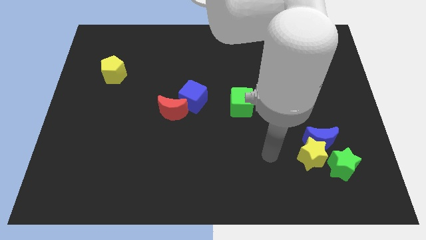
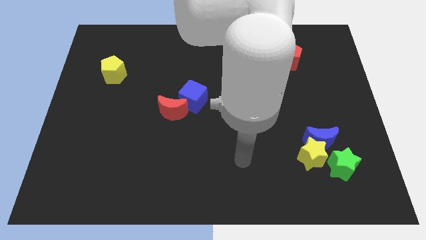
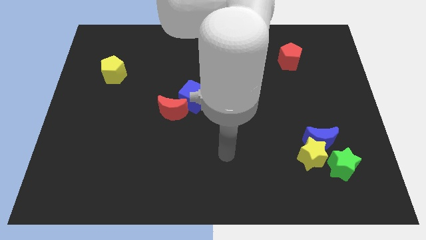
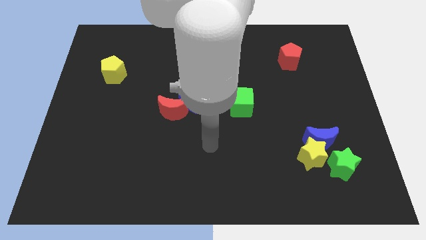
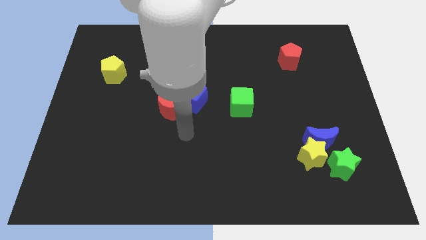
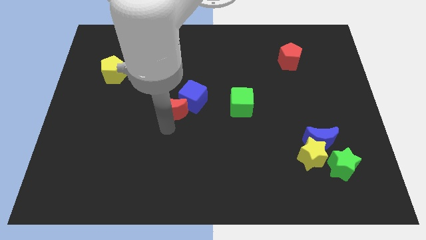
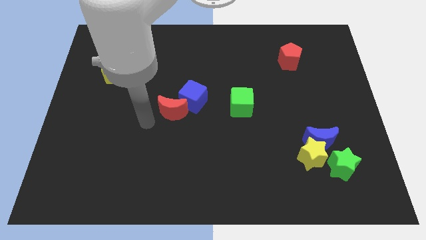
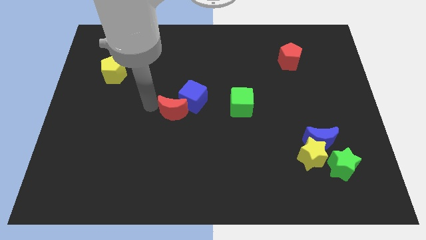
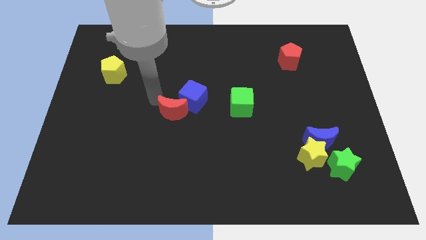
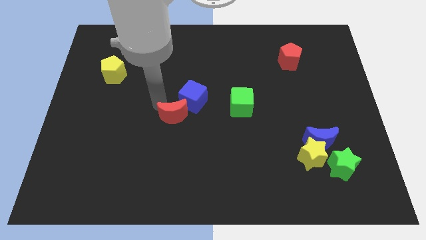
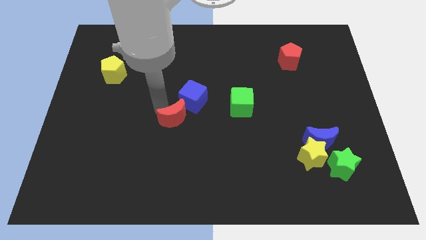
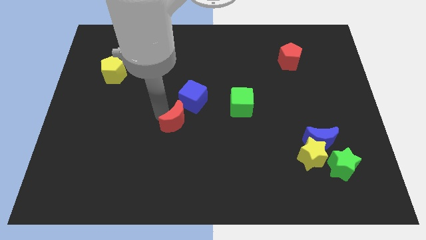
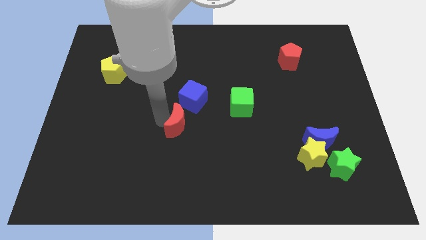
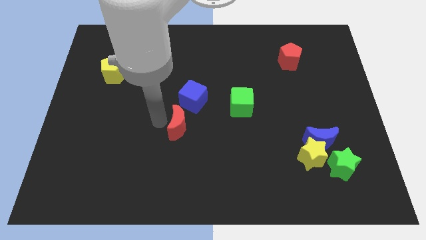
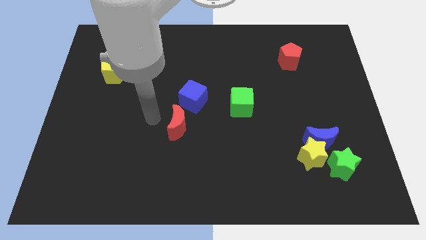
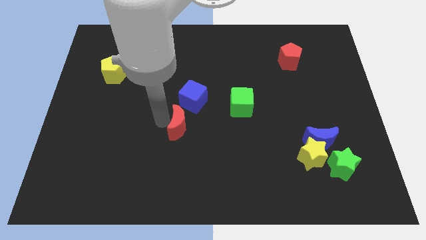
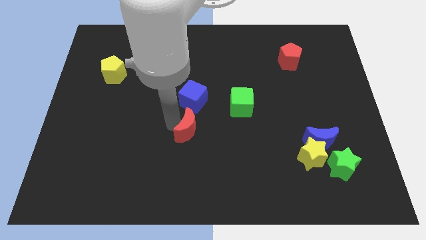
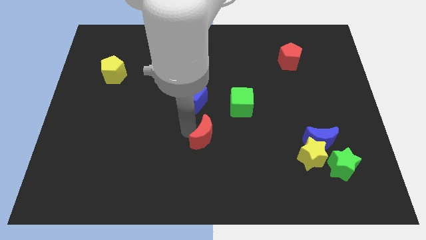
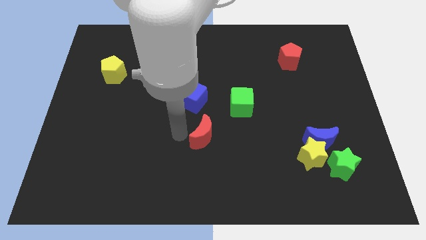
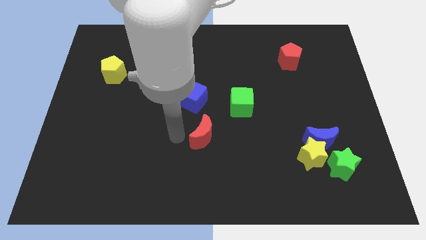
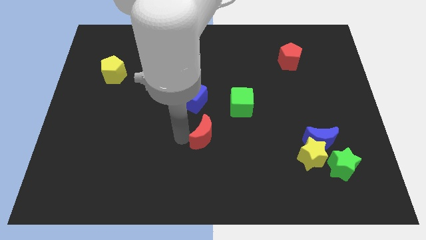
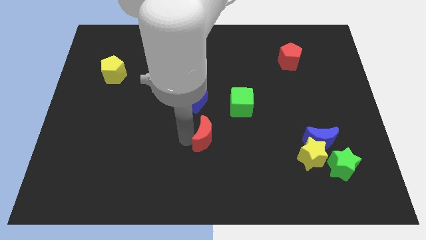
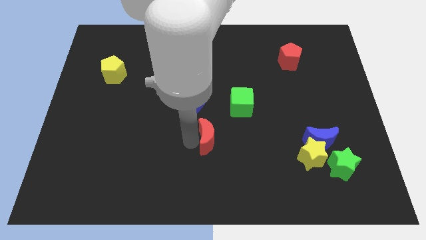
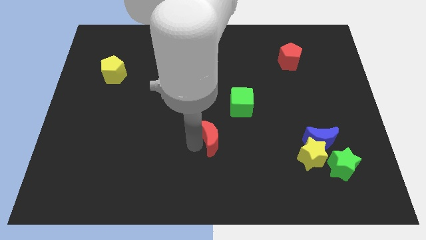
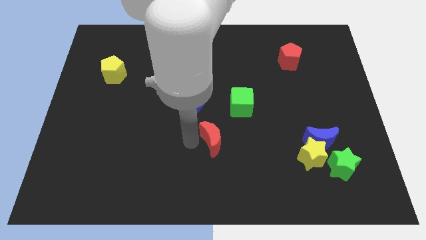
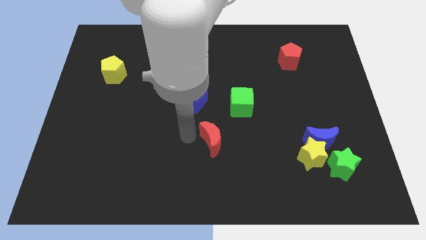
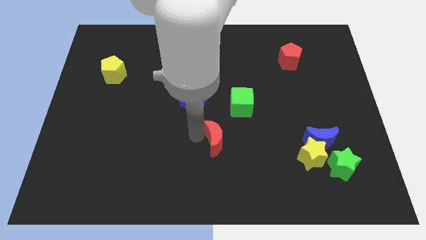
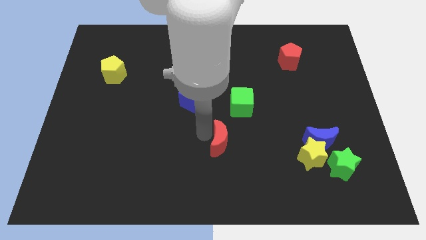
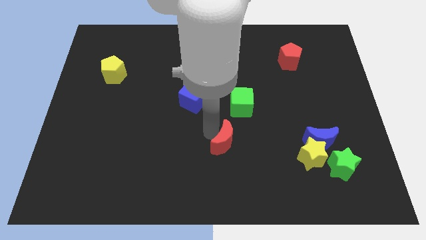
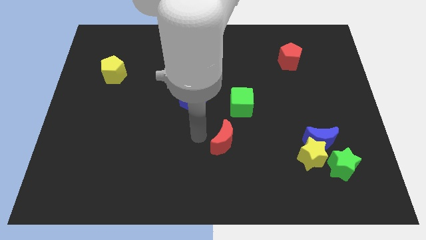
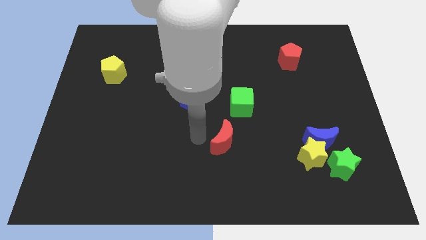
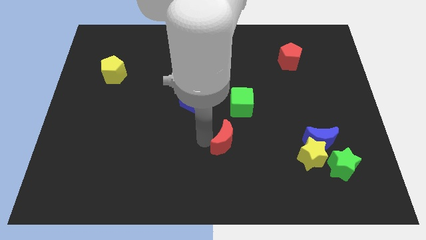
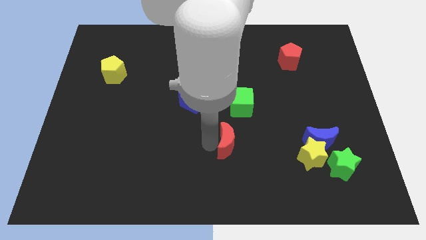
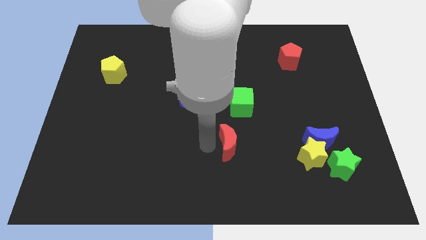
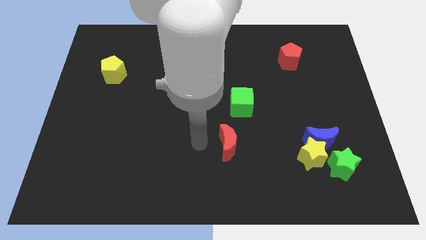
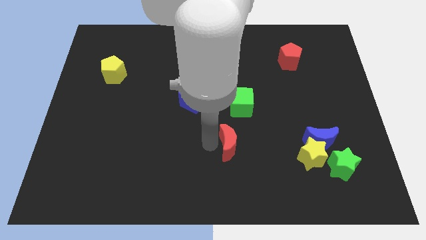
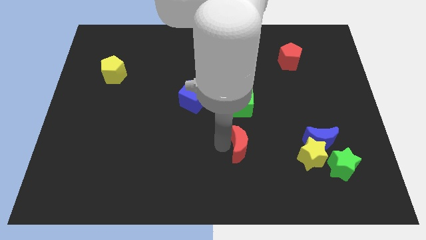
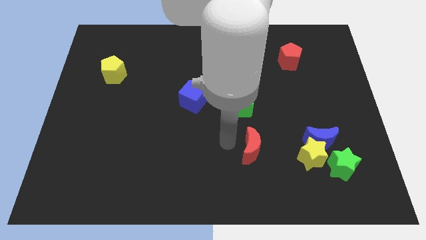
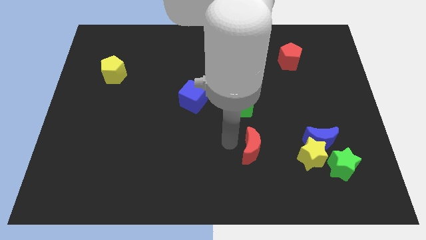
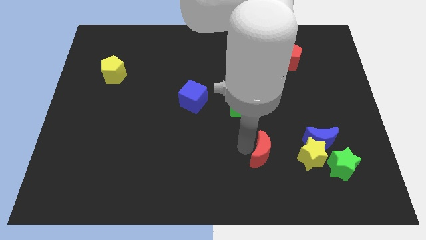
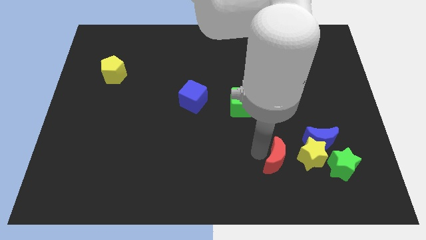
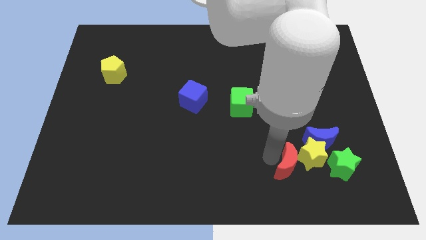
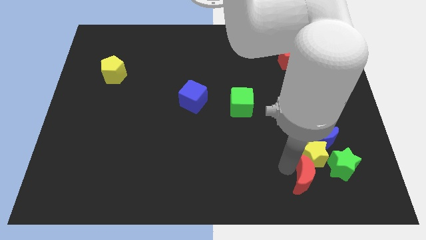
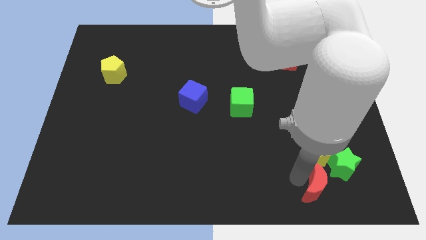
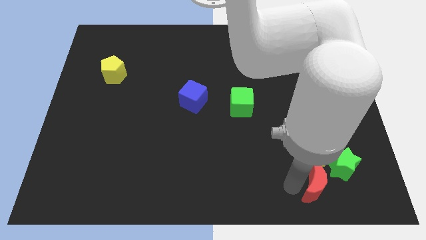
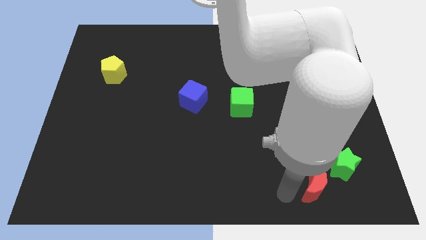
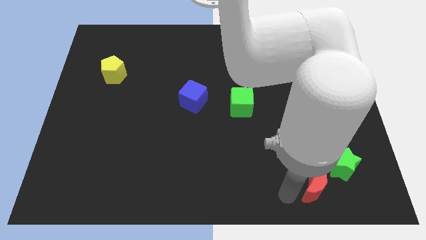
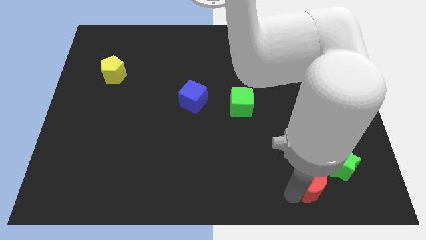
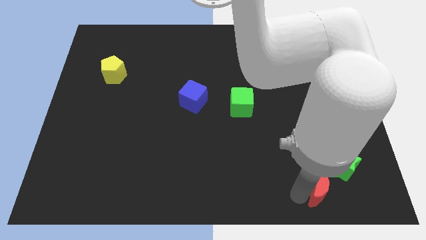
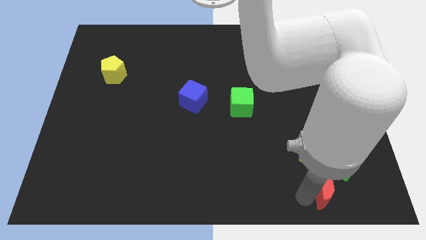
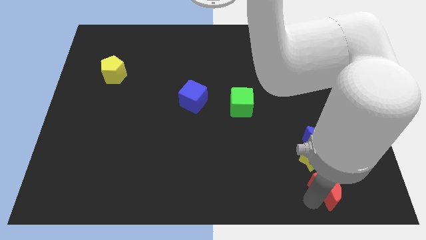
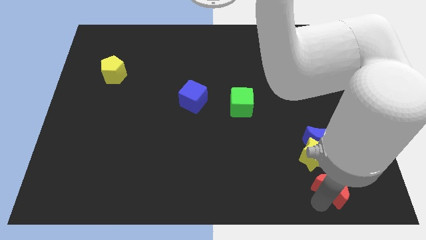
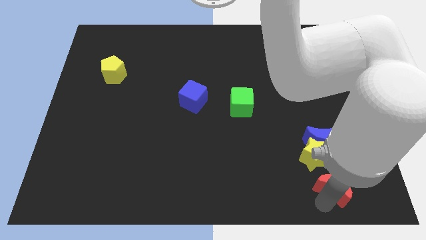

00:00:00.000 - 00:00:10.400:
push the red moon towards the green star

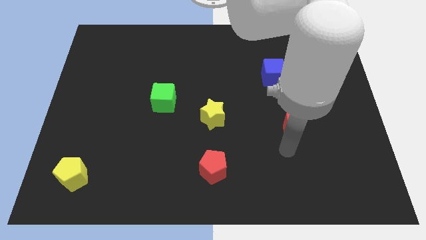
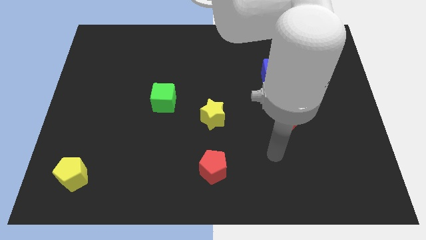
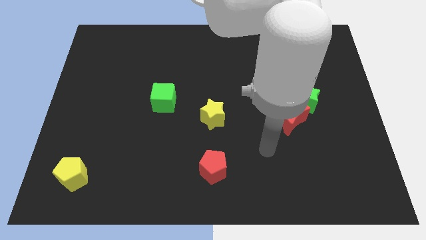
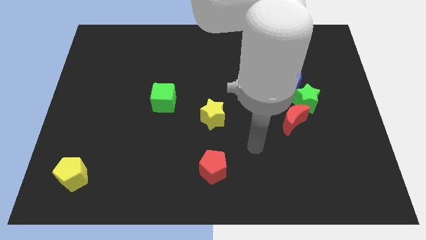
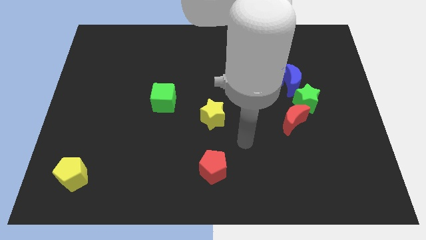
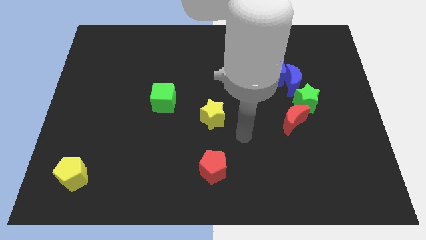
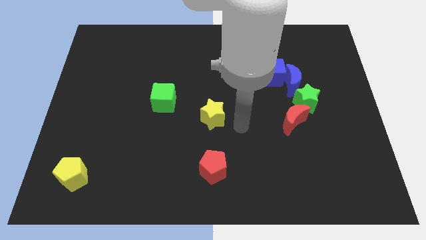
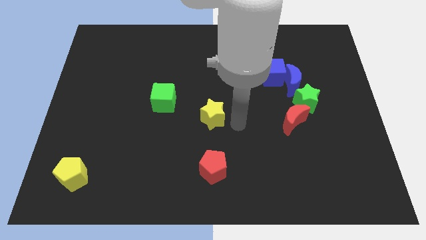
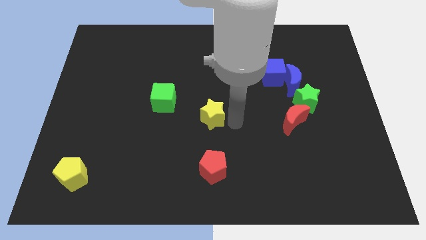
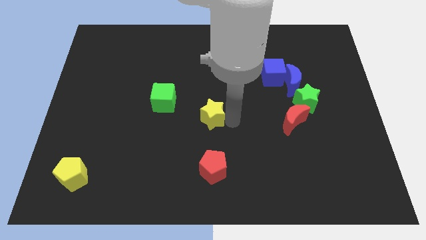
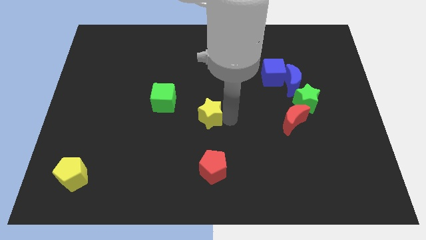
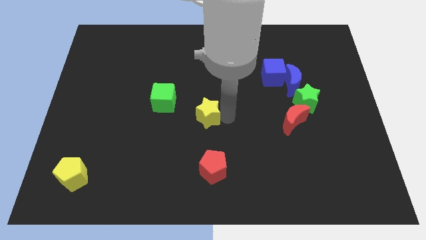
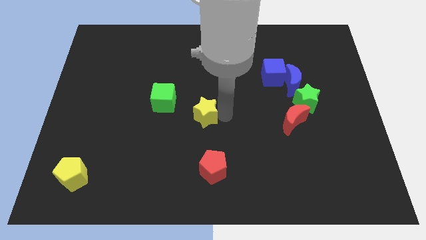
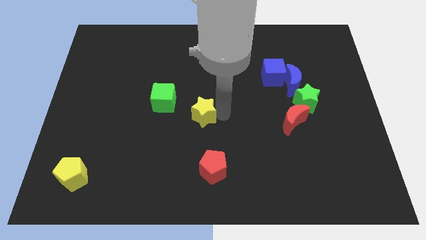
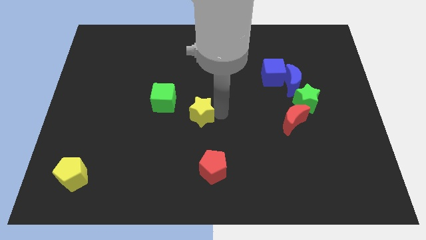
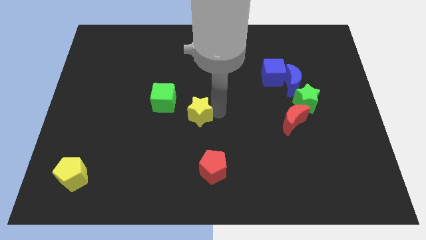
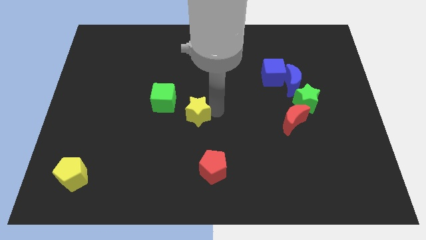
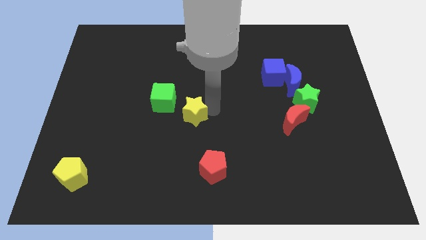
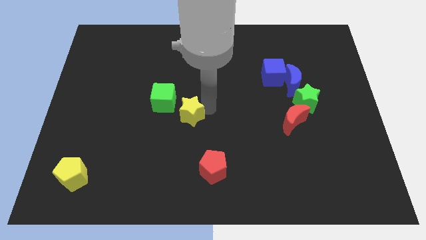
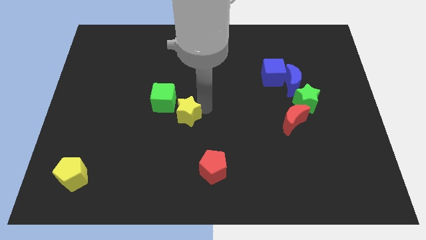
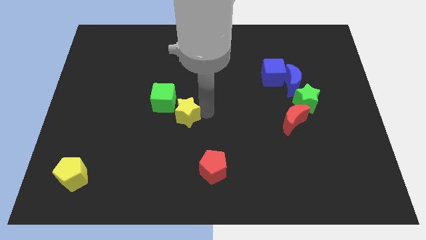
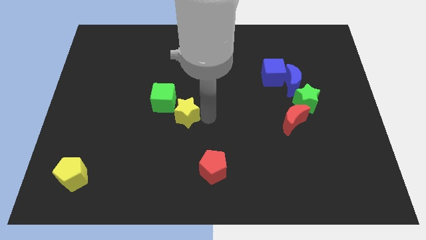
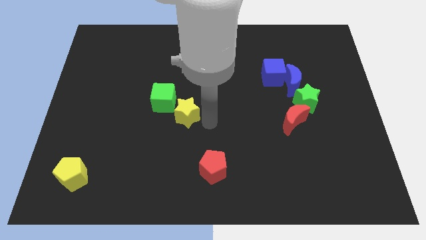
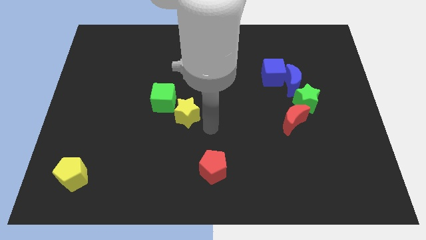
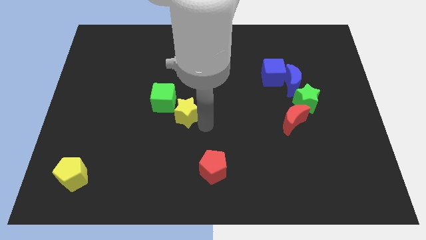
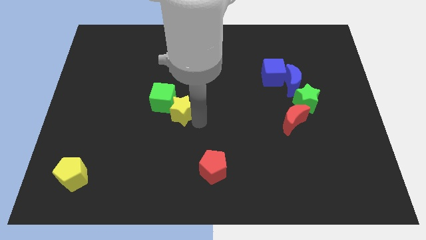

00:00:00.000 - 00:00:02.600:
slide the yellow star next to the green cube
